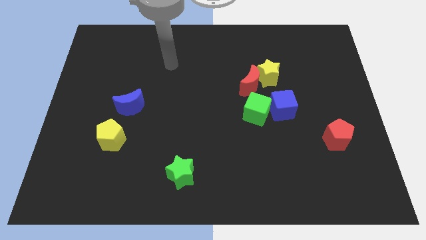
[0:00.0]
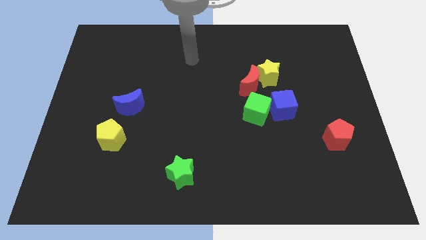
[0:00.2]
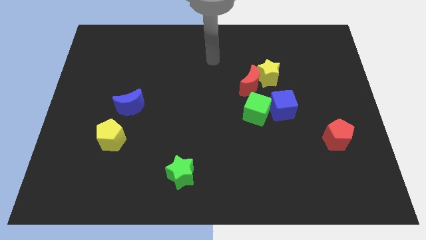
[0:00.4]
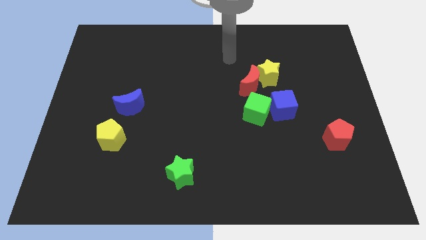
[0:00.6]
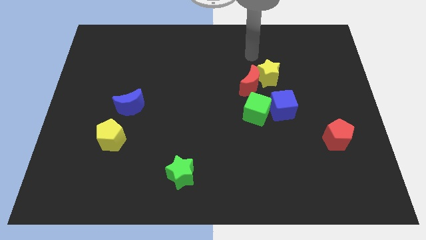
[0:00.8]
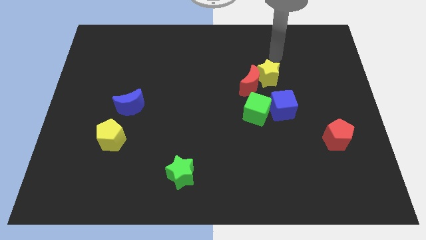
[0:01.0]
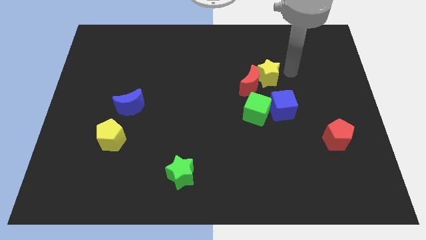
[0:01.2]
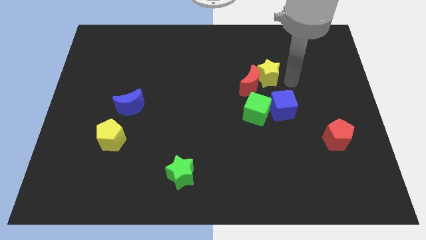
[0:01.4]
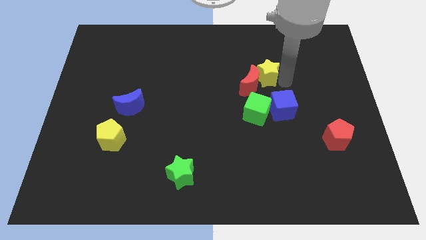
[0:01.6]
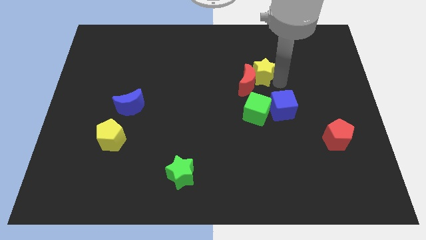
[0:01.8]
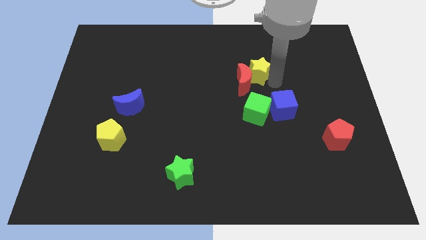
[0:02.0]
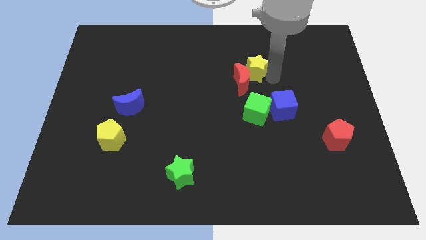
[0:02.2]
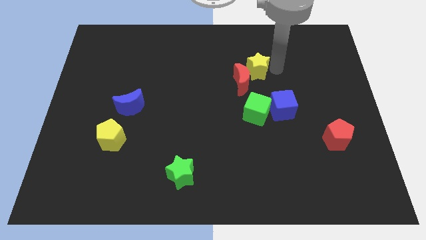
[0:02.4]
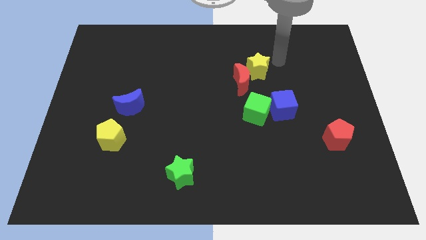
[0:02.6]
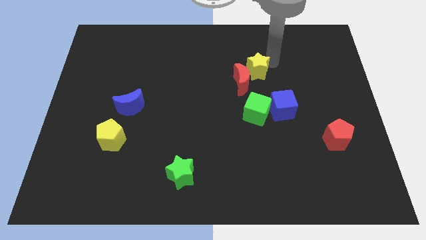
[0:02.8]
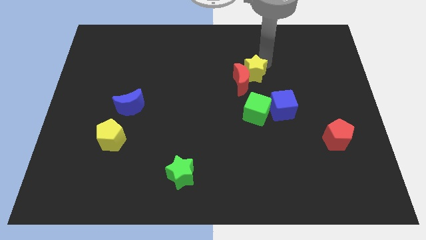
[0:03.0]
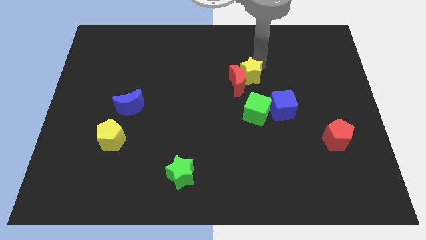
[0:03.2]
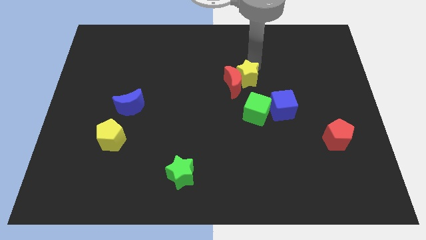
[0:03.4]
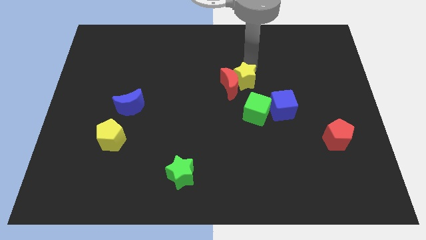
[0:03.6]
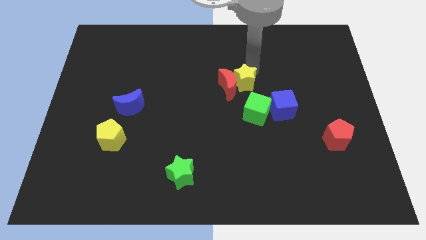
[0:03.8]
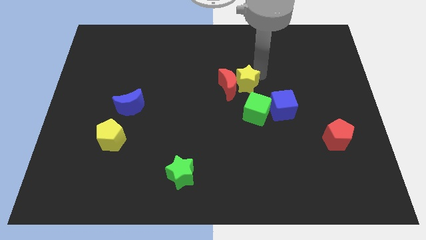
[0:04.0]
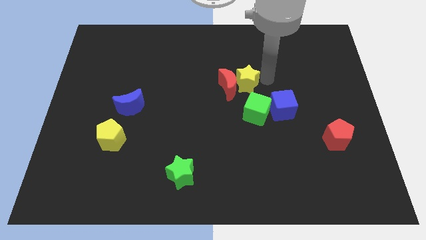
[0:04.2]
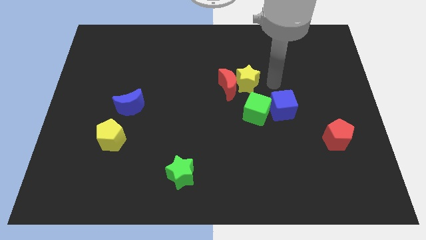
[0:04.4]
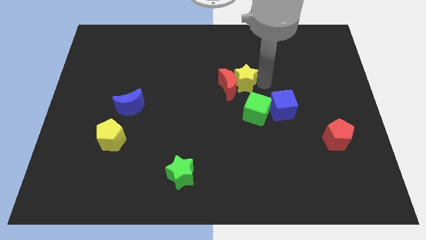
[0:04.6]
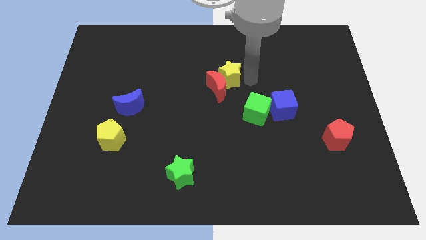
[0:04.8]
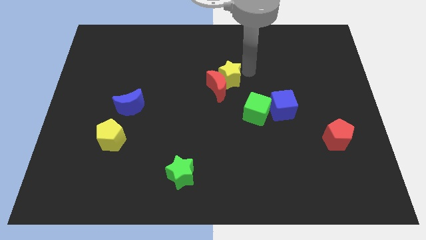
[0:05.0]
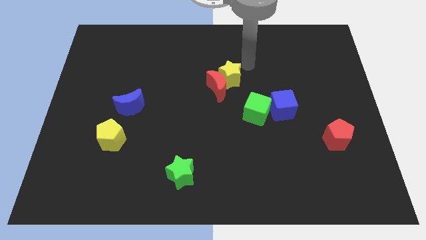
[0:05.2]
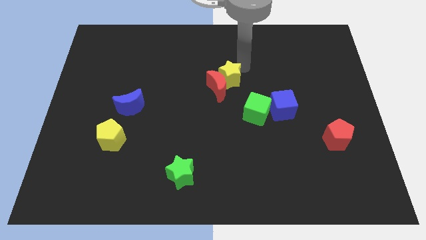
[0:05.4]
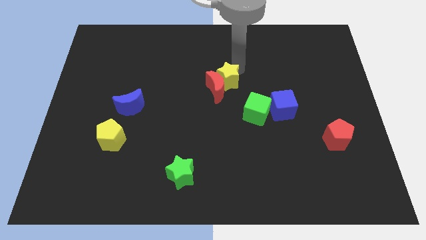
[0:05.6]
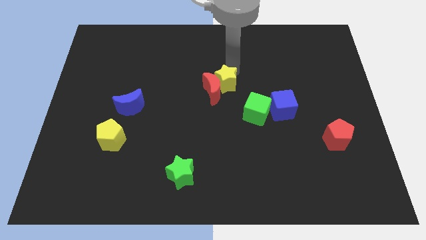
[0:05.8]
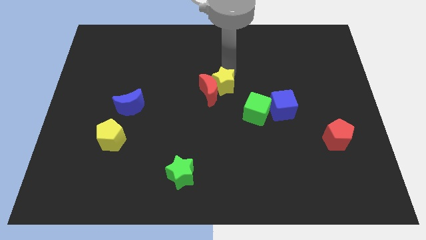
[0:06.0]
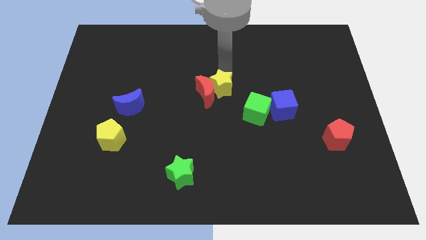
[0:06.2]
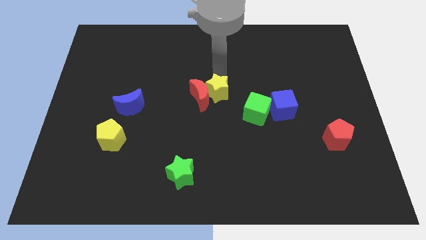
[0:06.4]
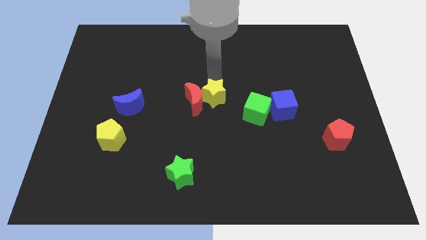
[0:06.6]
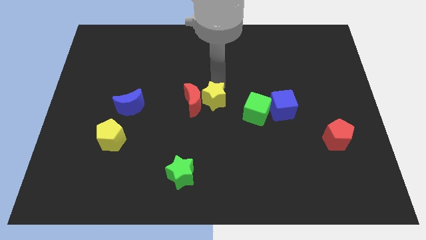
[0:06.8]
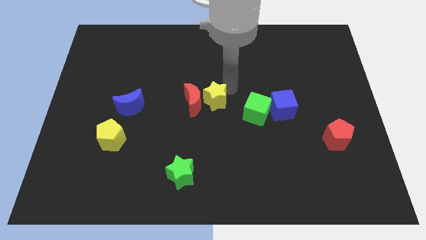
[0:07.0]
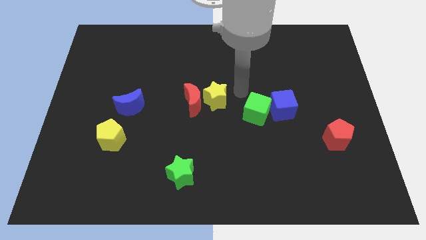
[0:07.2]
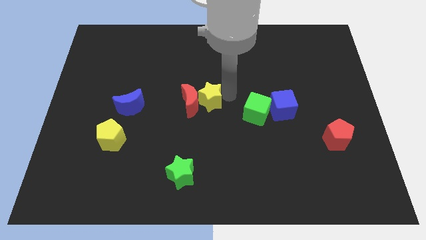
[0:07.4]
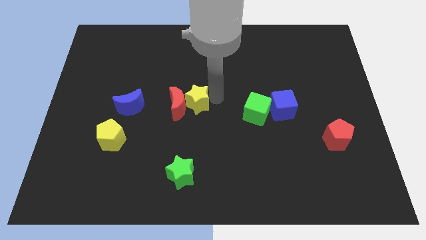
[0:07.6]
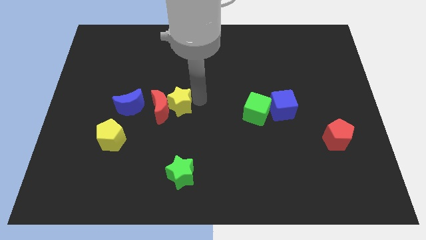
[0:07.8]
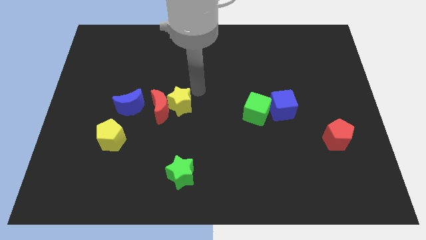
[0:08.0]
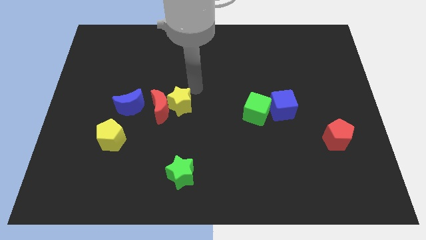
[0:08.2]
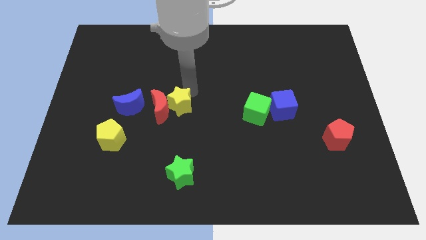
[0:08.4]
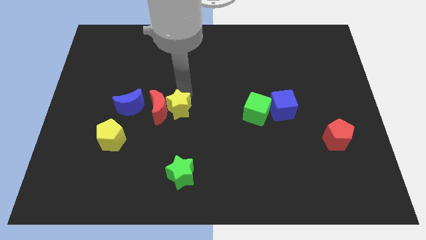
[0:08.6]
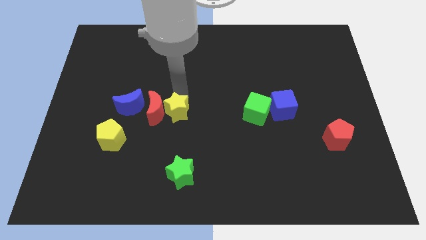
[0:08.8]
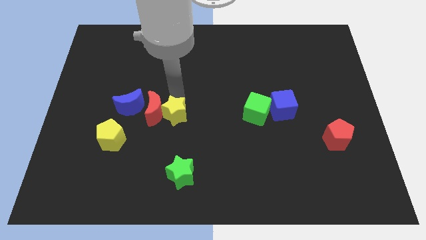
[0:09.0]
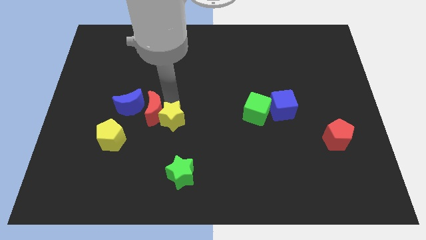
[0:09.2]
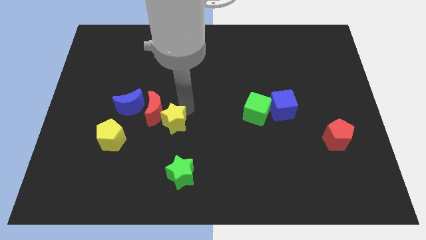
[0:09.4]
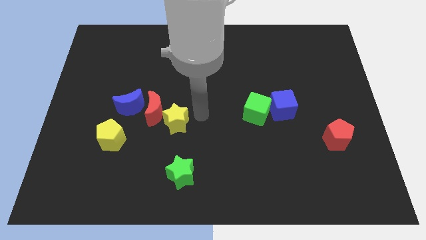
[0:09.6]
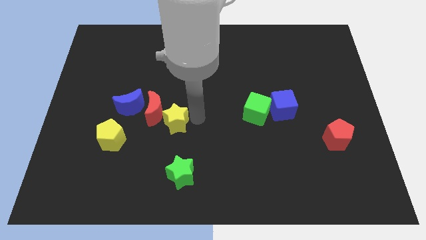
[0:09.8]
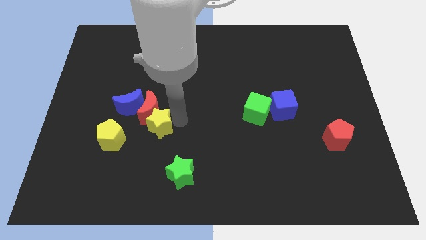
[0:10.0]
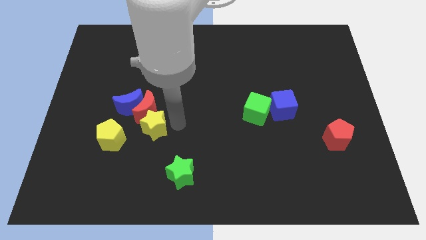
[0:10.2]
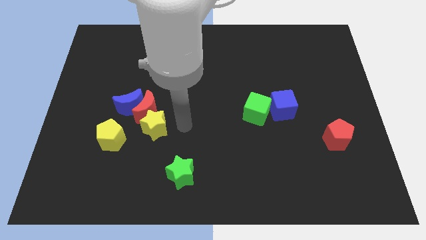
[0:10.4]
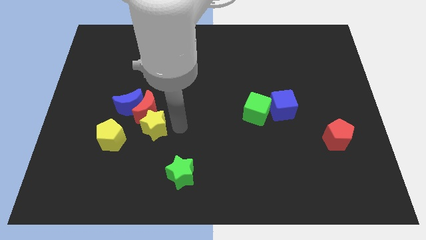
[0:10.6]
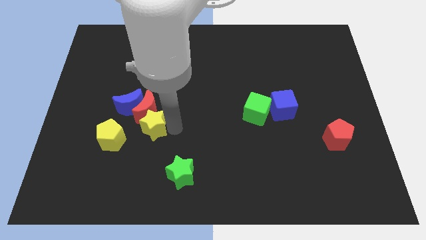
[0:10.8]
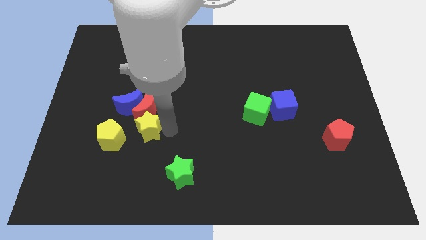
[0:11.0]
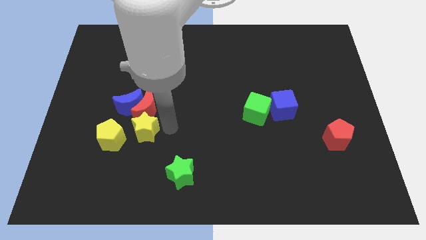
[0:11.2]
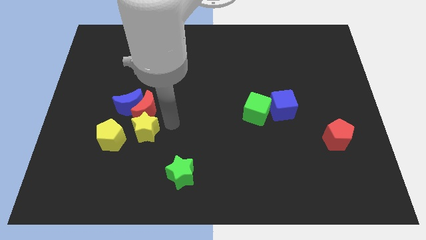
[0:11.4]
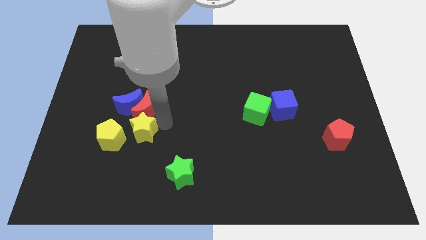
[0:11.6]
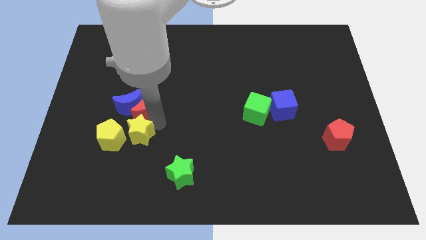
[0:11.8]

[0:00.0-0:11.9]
put the yellow star next to the yellow pentagon
